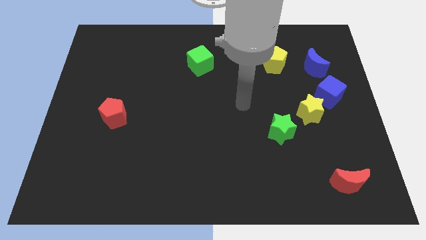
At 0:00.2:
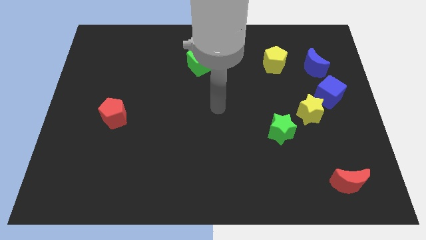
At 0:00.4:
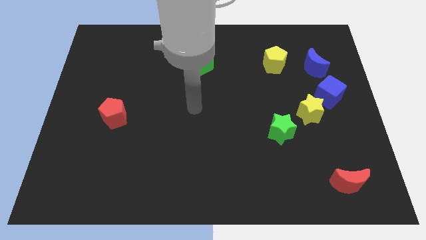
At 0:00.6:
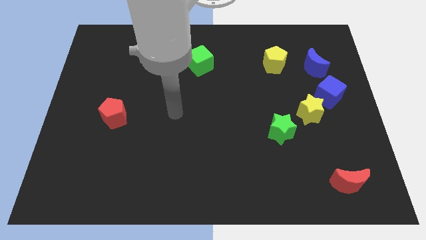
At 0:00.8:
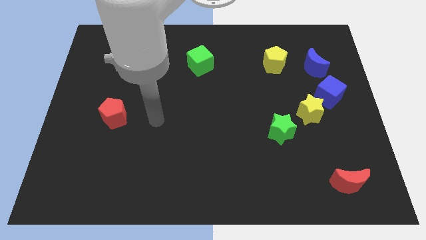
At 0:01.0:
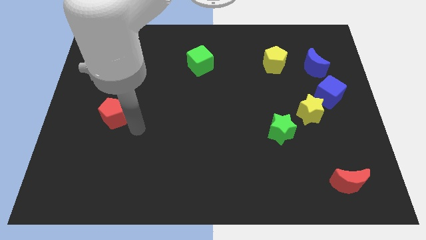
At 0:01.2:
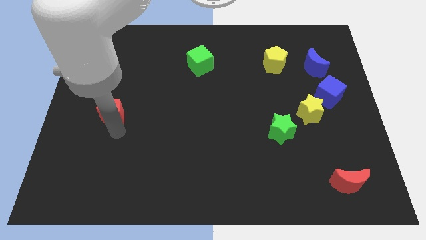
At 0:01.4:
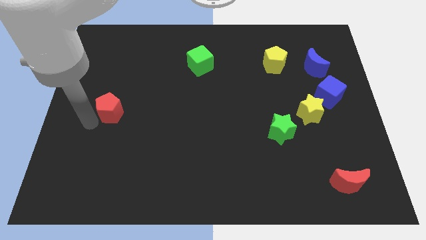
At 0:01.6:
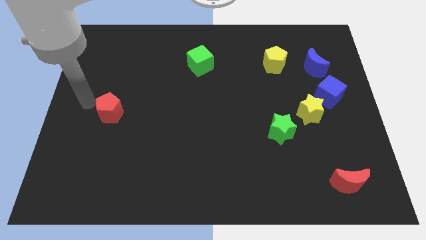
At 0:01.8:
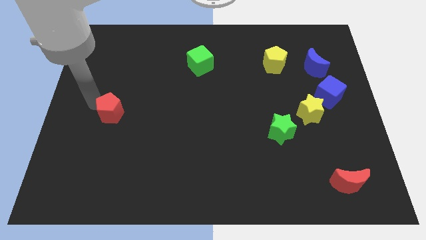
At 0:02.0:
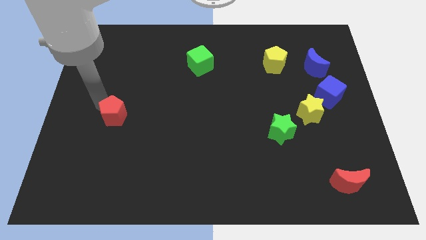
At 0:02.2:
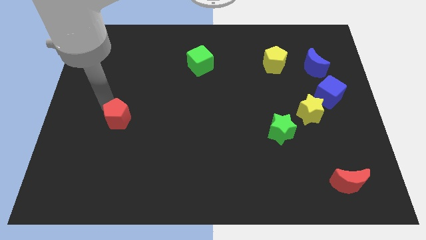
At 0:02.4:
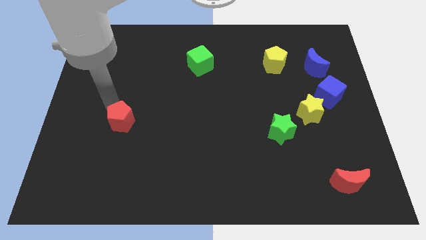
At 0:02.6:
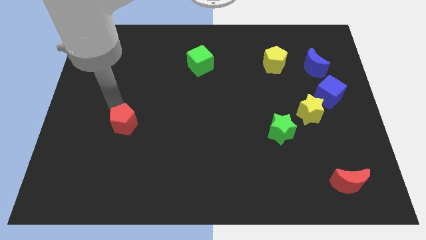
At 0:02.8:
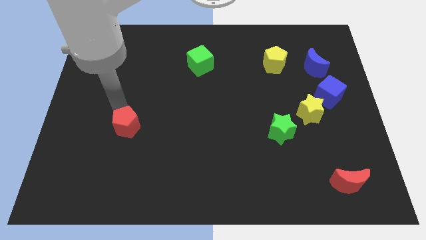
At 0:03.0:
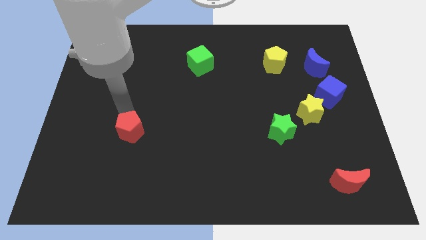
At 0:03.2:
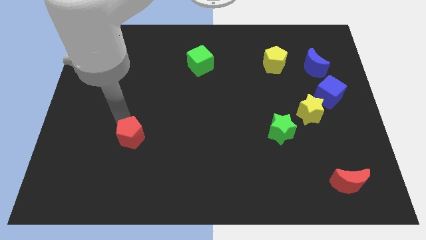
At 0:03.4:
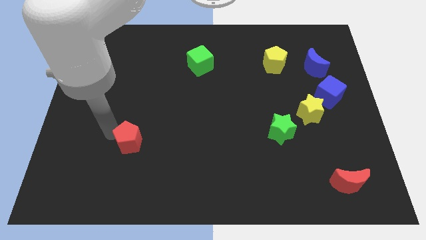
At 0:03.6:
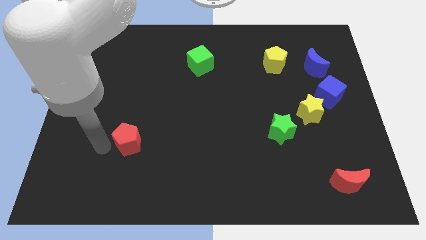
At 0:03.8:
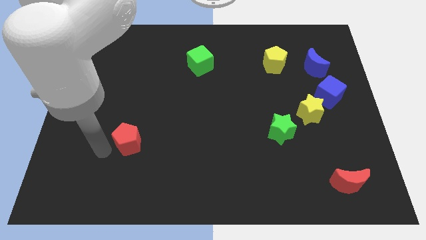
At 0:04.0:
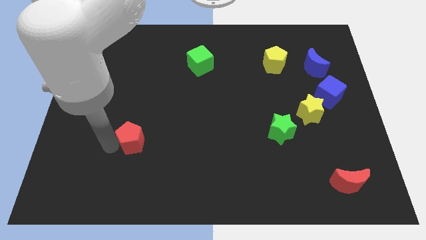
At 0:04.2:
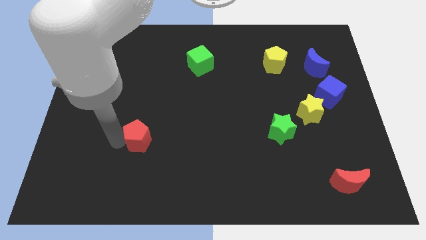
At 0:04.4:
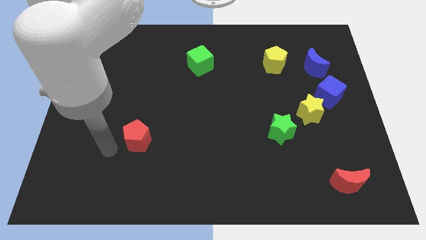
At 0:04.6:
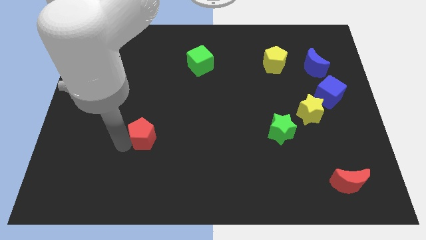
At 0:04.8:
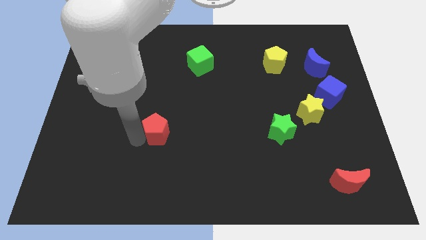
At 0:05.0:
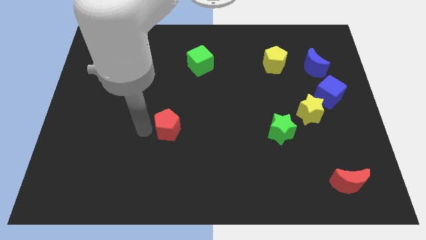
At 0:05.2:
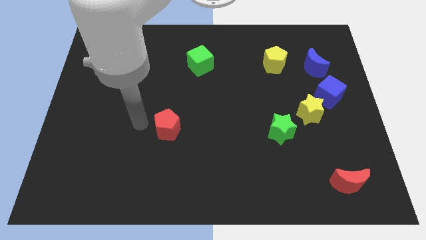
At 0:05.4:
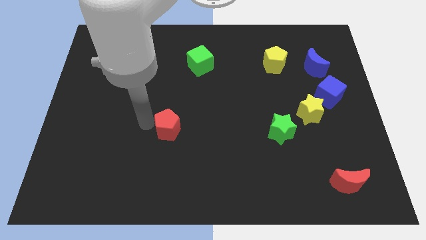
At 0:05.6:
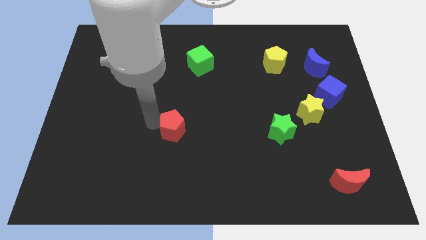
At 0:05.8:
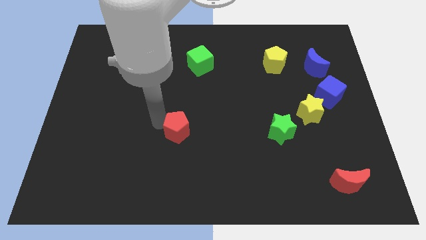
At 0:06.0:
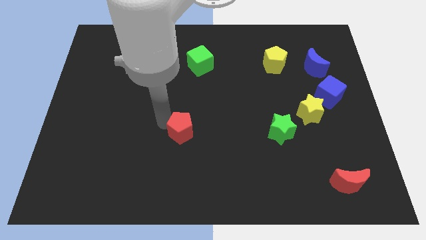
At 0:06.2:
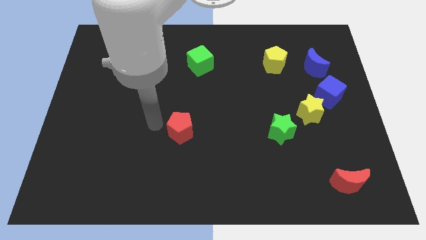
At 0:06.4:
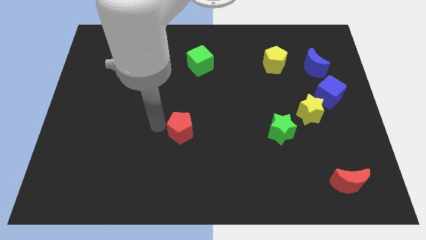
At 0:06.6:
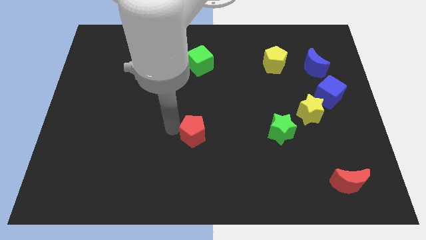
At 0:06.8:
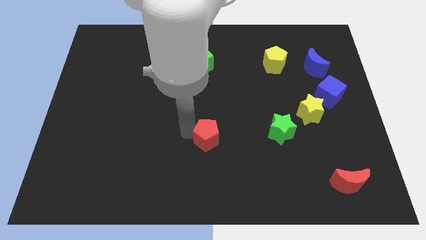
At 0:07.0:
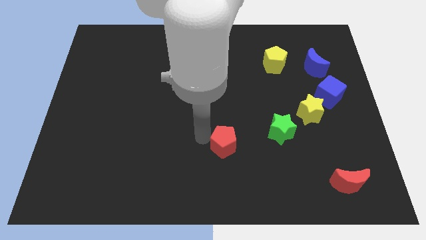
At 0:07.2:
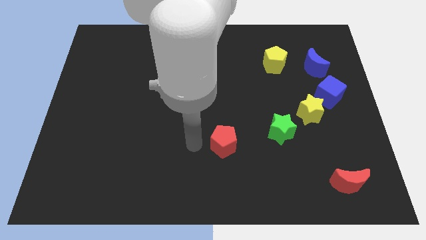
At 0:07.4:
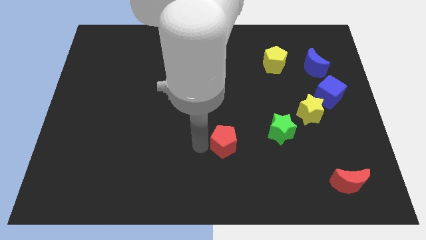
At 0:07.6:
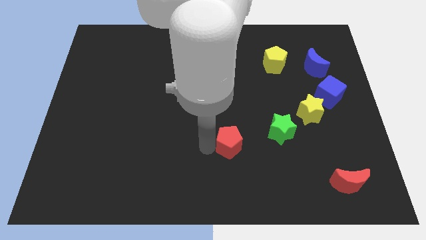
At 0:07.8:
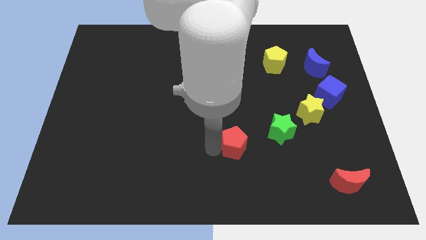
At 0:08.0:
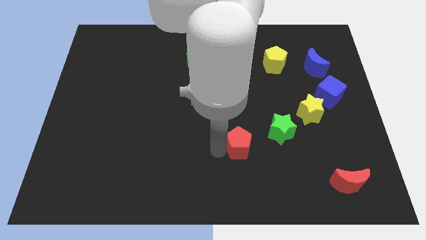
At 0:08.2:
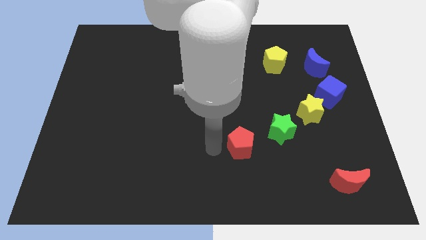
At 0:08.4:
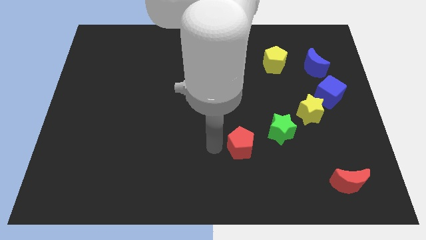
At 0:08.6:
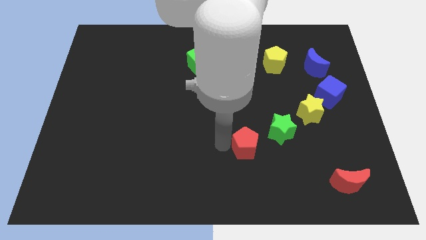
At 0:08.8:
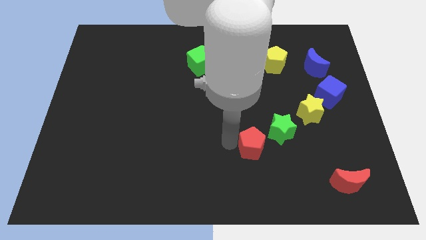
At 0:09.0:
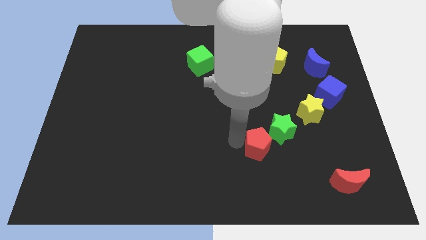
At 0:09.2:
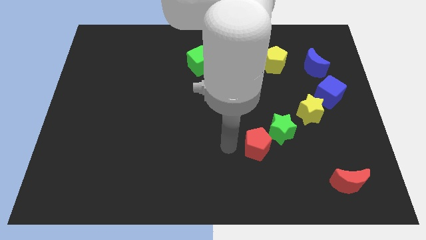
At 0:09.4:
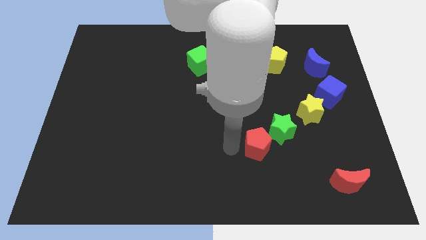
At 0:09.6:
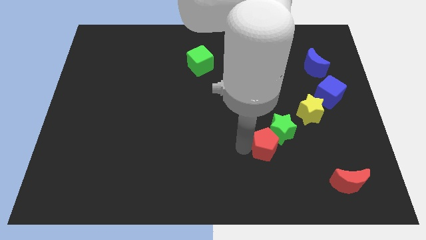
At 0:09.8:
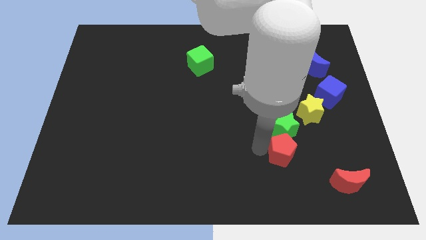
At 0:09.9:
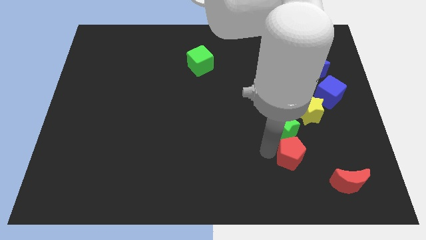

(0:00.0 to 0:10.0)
slide the red pentagon to the bottom right of the green star

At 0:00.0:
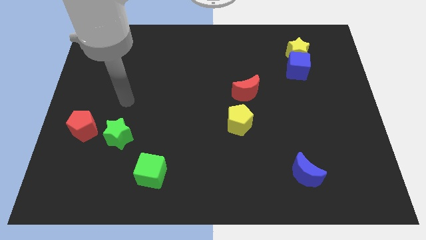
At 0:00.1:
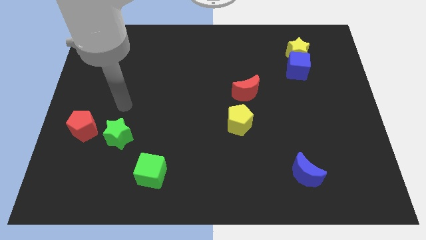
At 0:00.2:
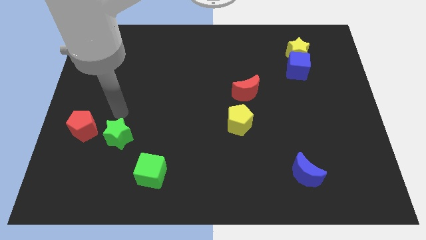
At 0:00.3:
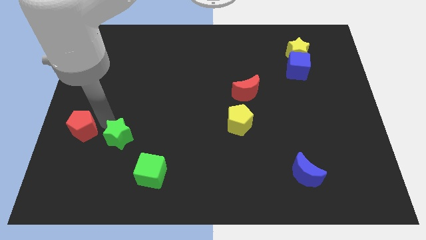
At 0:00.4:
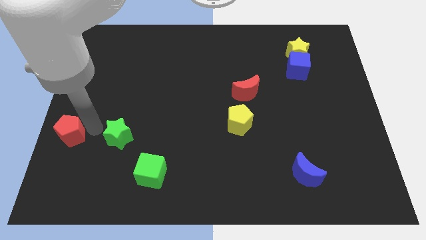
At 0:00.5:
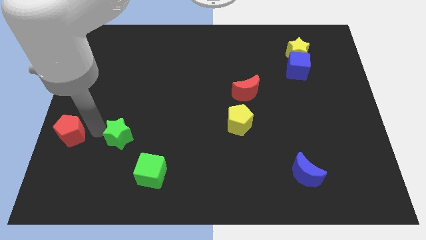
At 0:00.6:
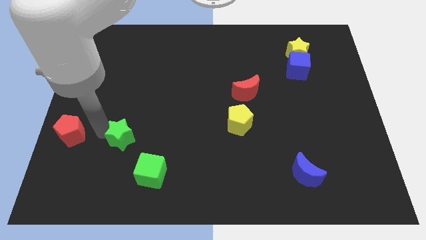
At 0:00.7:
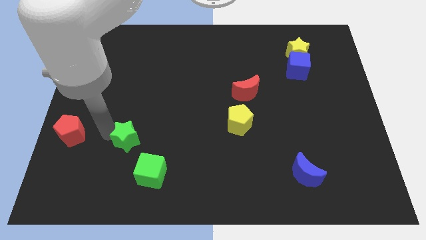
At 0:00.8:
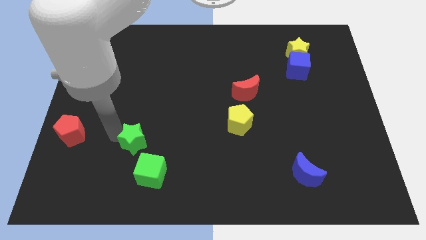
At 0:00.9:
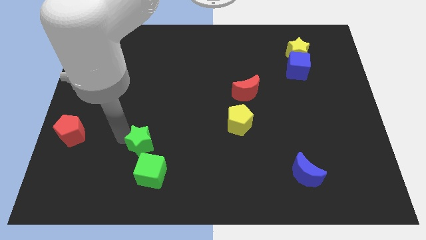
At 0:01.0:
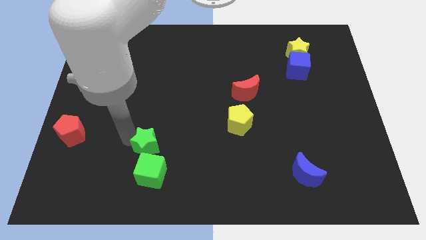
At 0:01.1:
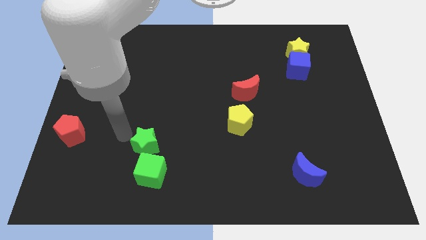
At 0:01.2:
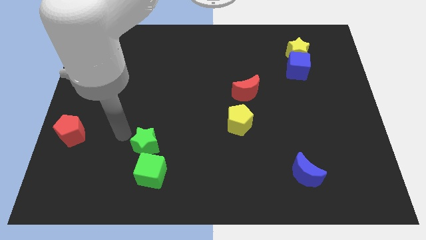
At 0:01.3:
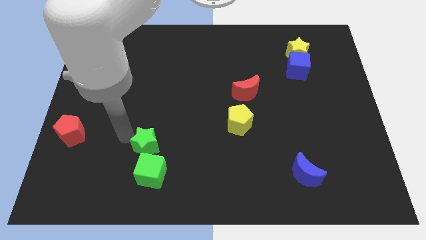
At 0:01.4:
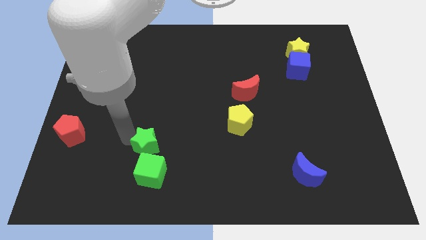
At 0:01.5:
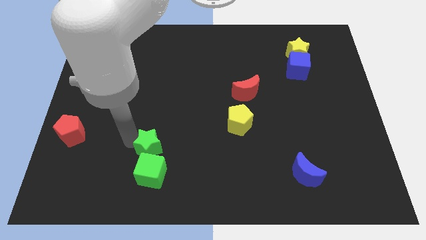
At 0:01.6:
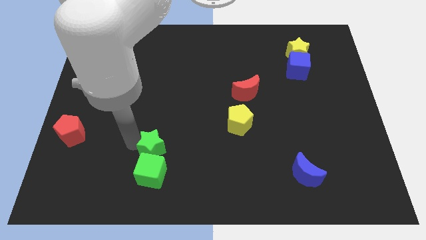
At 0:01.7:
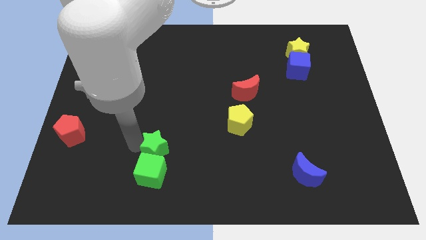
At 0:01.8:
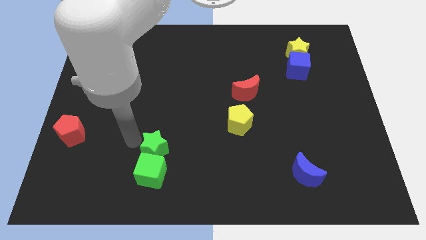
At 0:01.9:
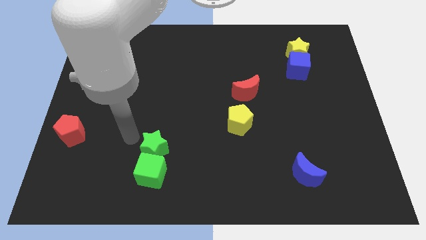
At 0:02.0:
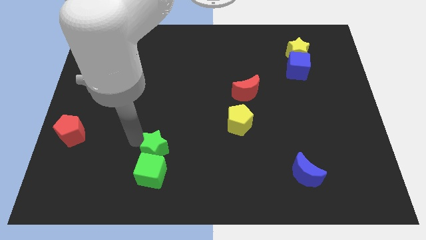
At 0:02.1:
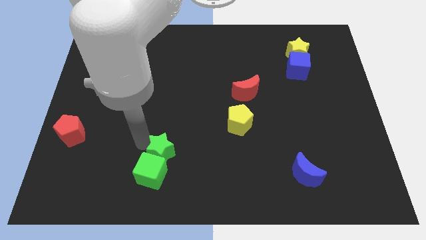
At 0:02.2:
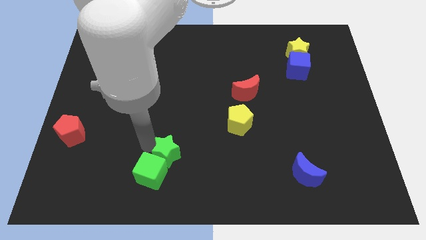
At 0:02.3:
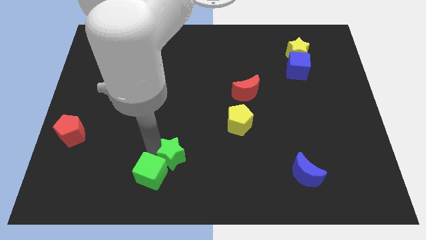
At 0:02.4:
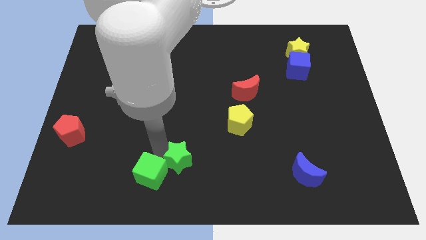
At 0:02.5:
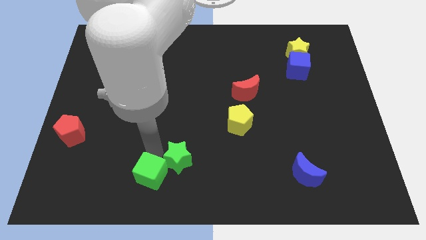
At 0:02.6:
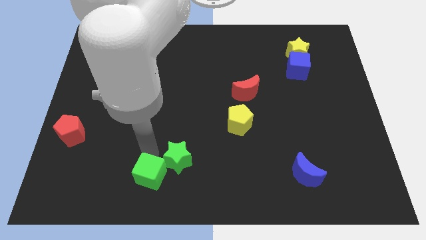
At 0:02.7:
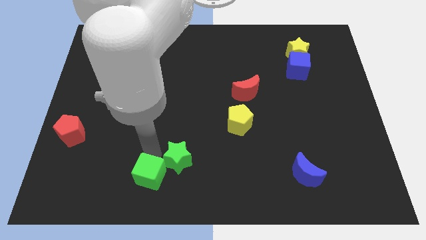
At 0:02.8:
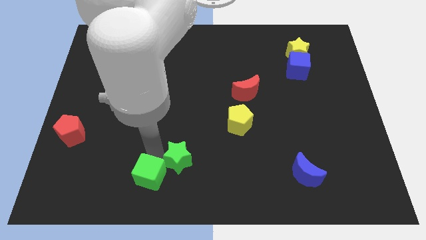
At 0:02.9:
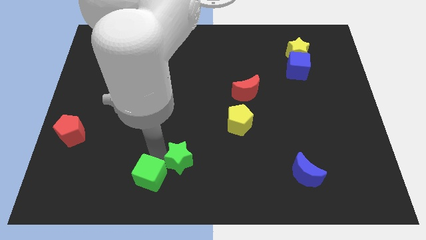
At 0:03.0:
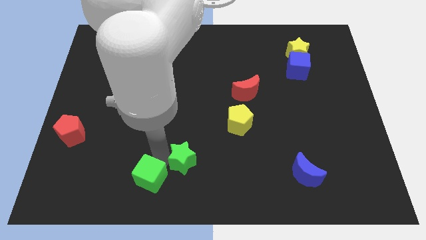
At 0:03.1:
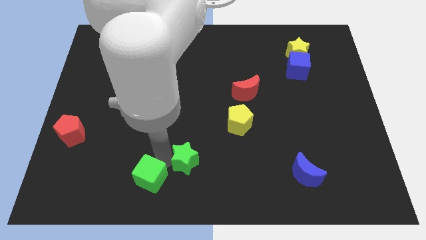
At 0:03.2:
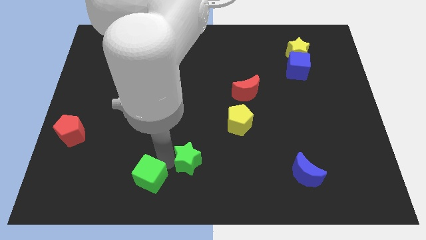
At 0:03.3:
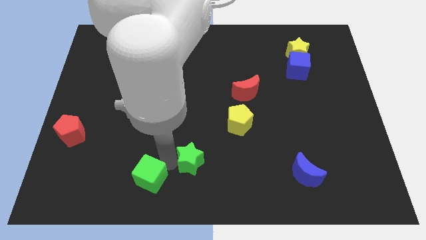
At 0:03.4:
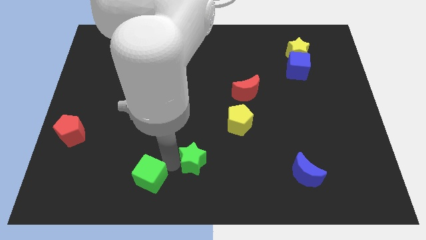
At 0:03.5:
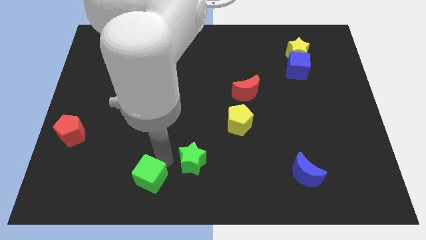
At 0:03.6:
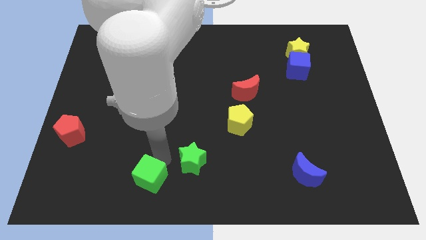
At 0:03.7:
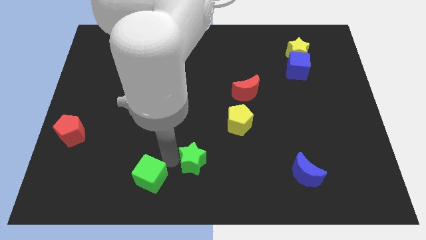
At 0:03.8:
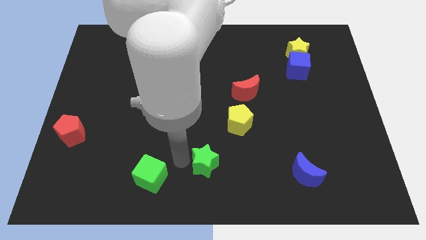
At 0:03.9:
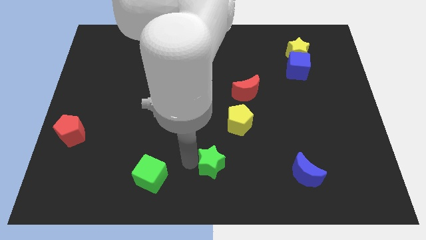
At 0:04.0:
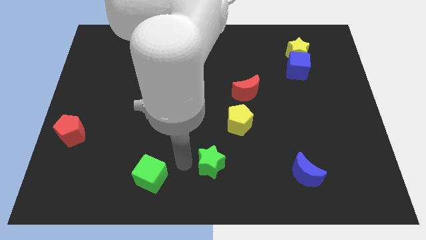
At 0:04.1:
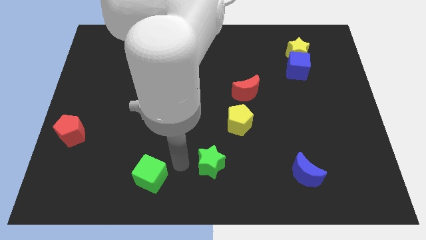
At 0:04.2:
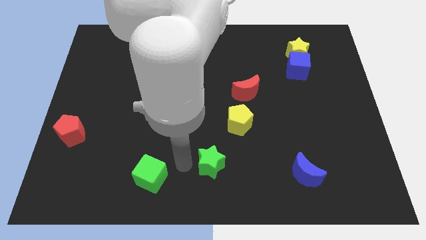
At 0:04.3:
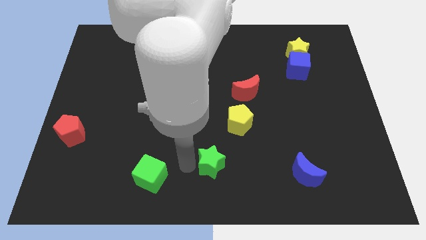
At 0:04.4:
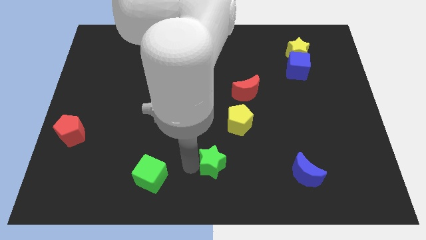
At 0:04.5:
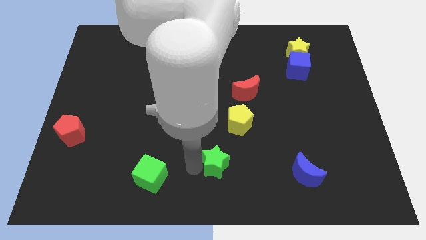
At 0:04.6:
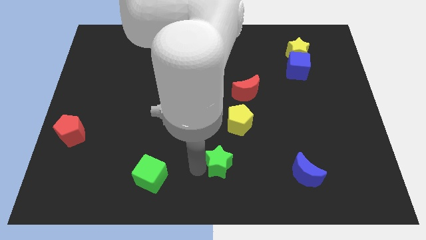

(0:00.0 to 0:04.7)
slide the green star below the yellow pentagon
